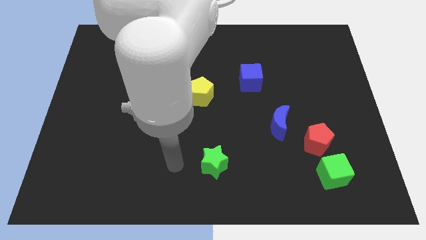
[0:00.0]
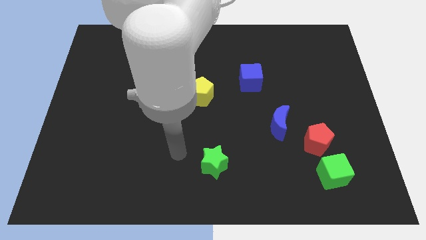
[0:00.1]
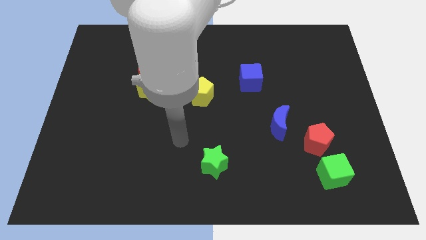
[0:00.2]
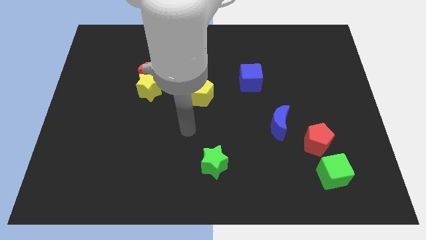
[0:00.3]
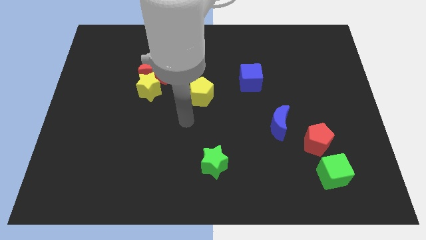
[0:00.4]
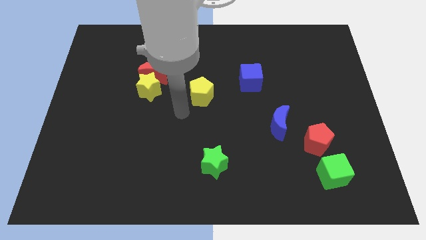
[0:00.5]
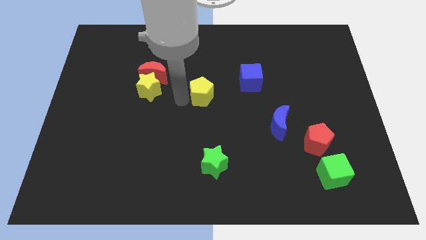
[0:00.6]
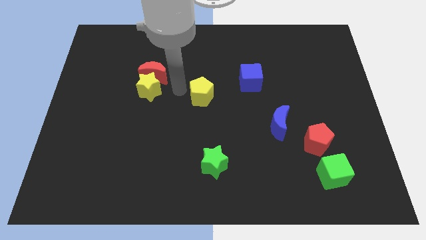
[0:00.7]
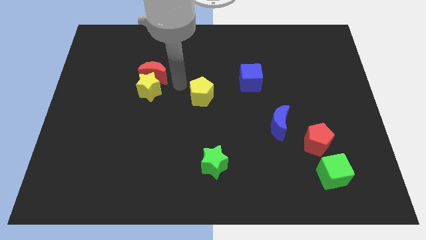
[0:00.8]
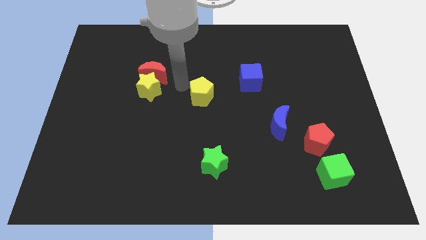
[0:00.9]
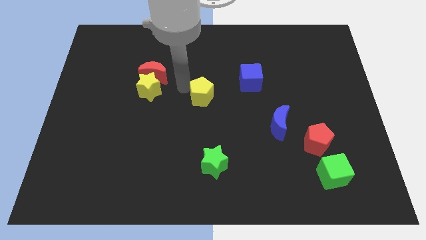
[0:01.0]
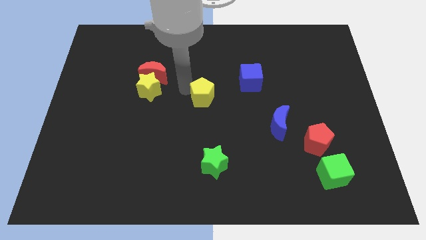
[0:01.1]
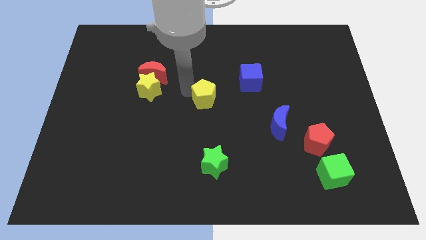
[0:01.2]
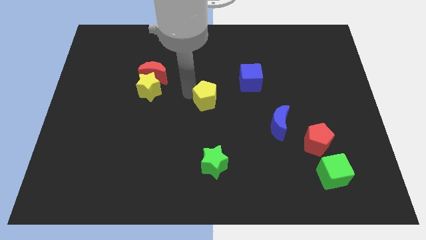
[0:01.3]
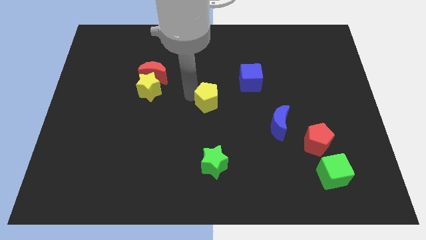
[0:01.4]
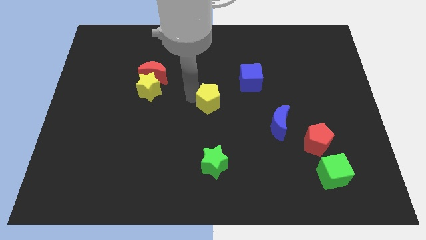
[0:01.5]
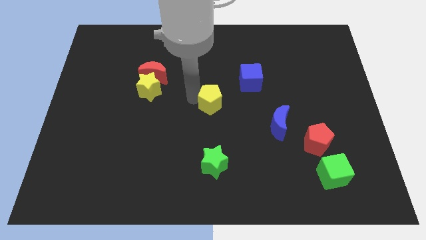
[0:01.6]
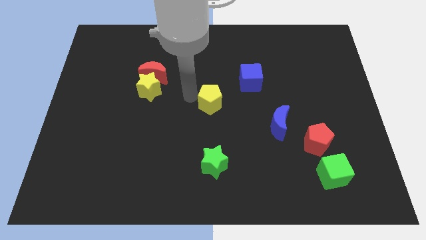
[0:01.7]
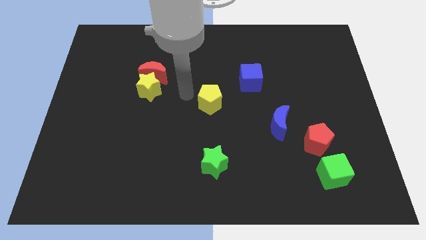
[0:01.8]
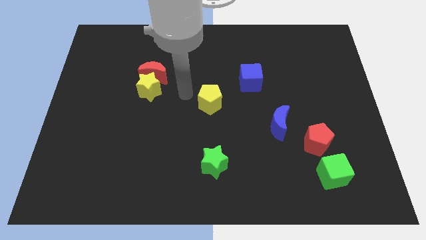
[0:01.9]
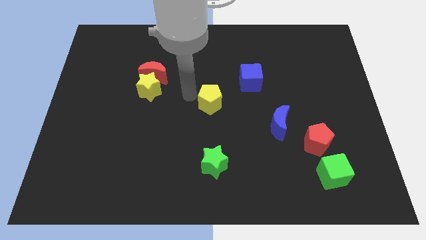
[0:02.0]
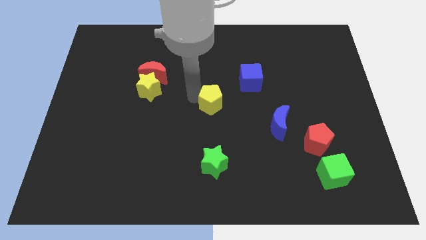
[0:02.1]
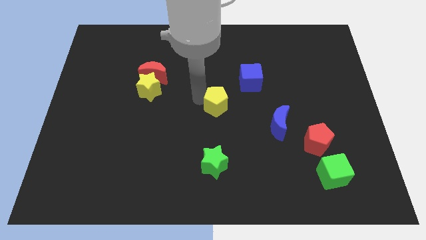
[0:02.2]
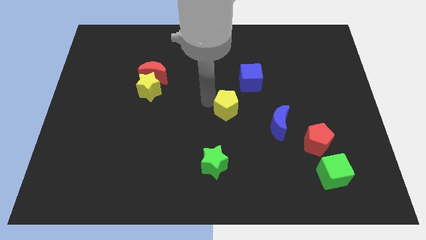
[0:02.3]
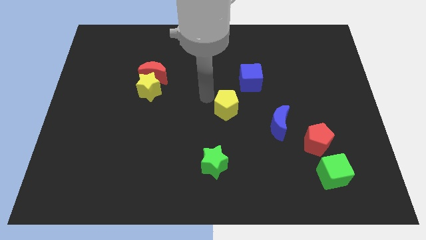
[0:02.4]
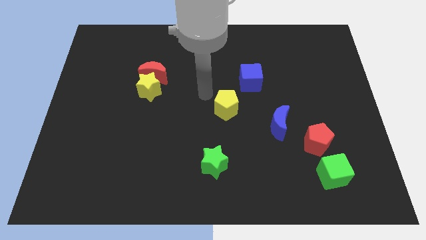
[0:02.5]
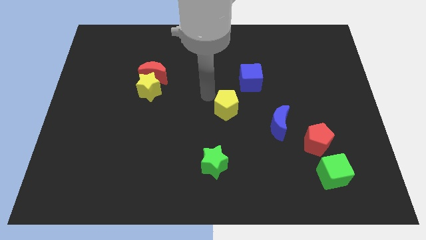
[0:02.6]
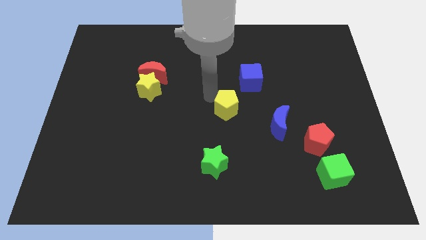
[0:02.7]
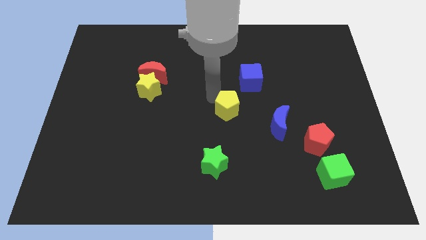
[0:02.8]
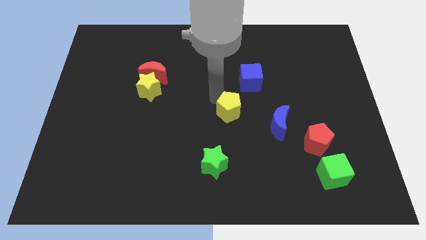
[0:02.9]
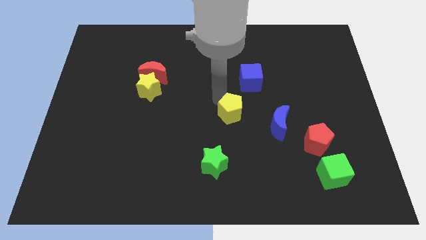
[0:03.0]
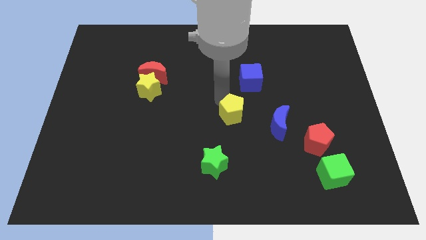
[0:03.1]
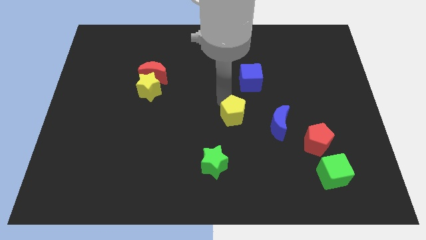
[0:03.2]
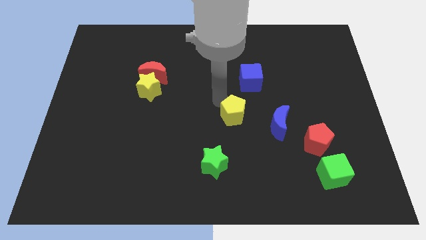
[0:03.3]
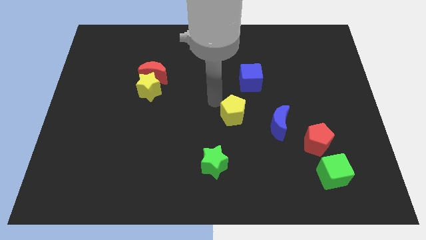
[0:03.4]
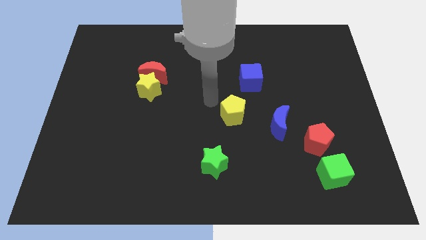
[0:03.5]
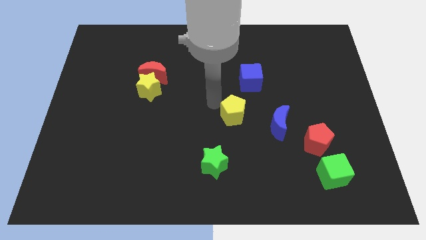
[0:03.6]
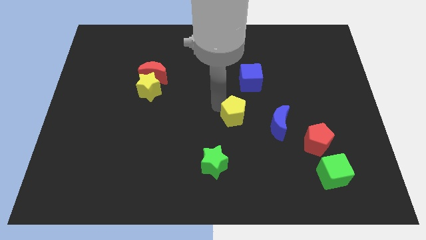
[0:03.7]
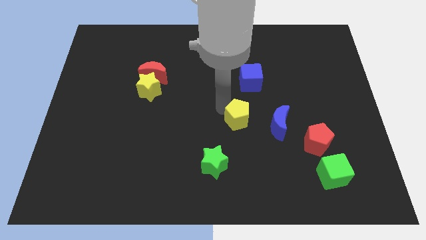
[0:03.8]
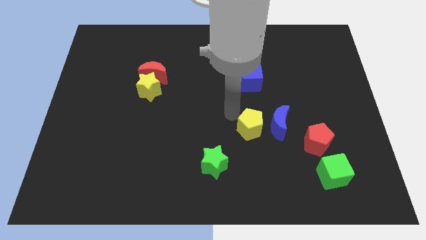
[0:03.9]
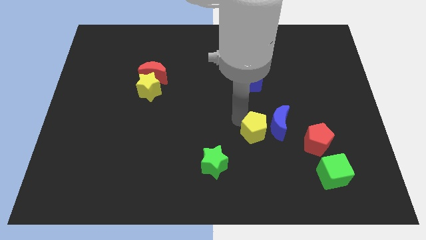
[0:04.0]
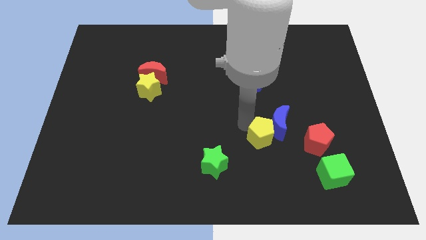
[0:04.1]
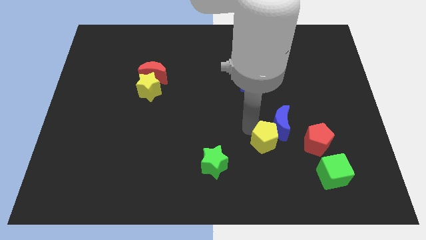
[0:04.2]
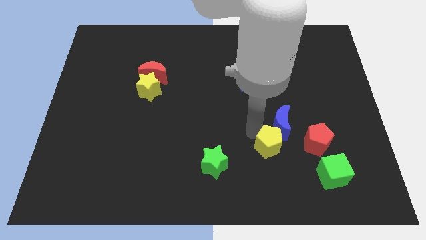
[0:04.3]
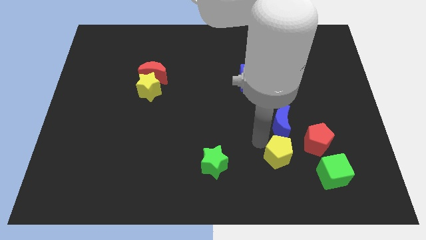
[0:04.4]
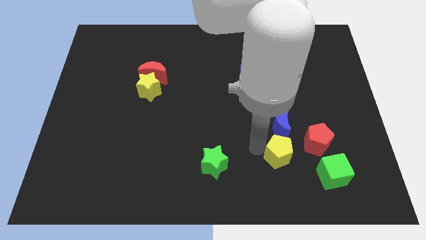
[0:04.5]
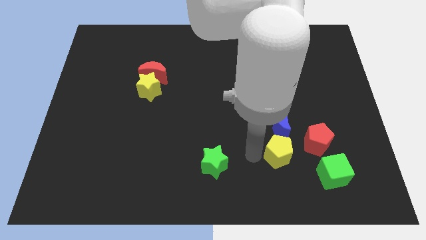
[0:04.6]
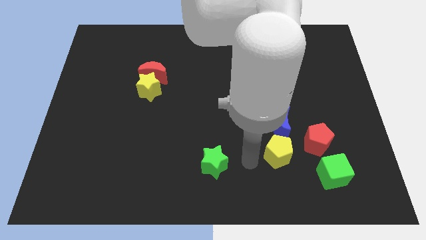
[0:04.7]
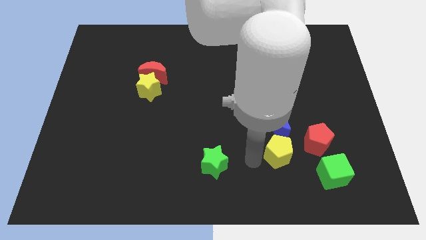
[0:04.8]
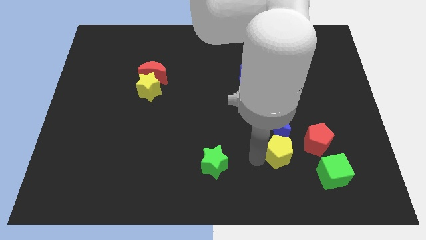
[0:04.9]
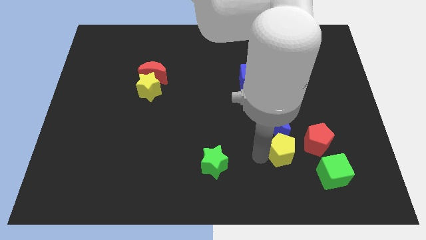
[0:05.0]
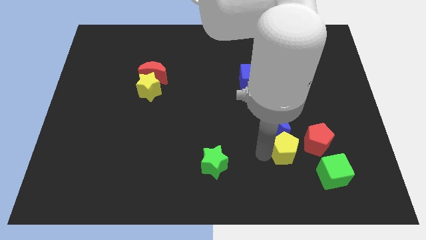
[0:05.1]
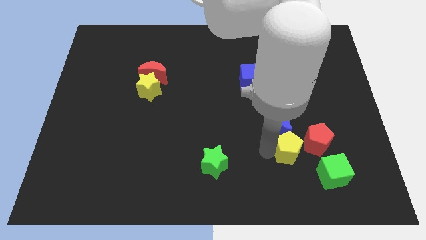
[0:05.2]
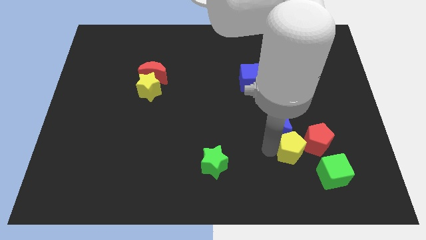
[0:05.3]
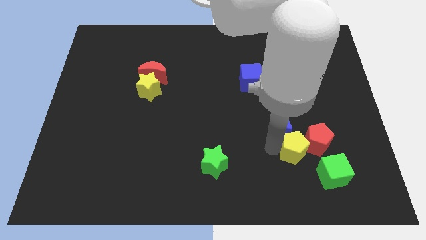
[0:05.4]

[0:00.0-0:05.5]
put the yellow pentagon towards the red pentagon
